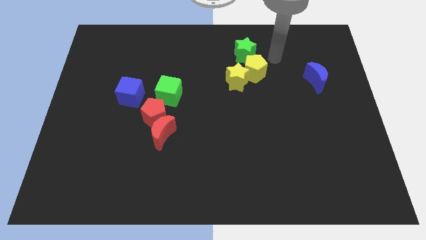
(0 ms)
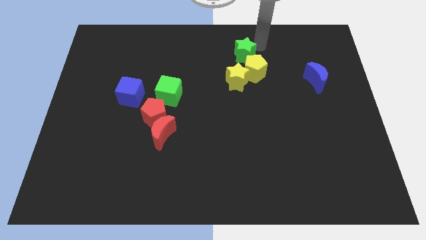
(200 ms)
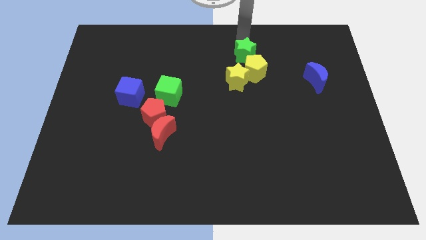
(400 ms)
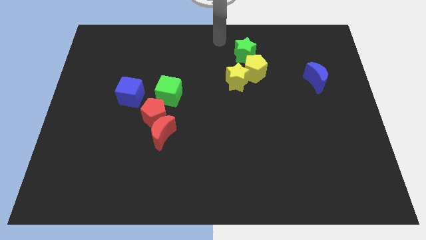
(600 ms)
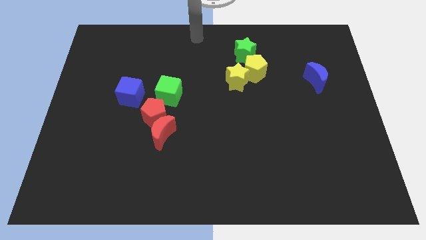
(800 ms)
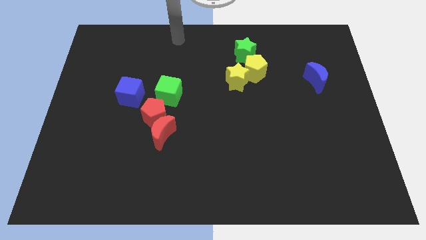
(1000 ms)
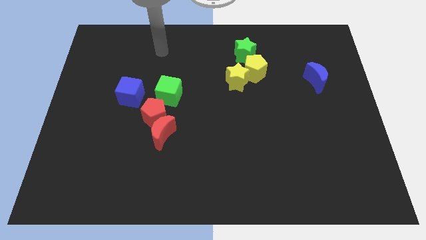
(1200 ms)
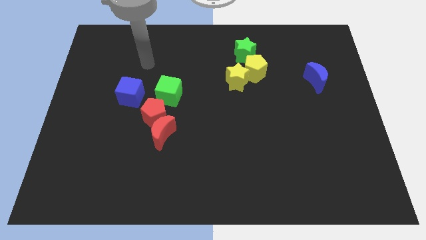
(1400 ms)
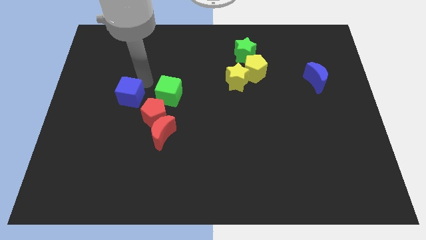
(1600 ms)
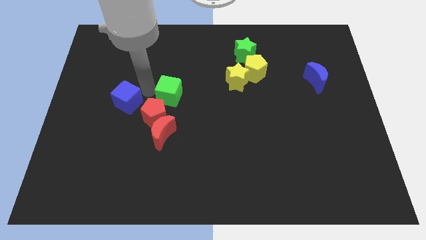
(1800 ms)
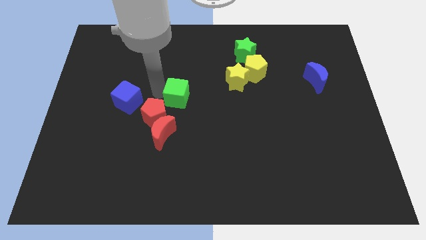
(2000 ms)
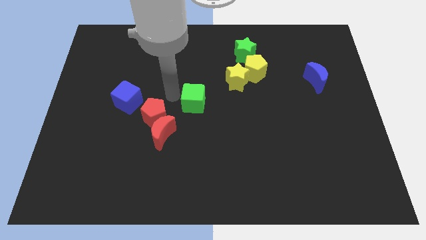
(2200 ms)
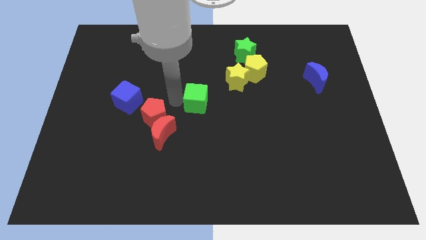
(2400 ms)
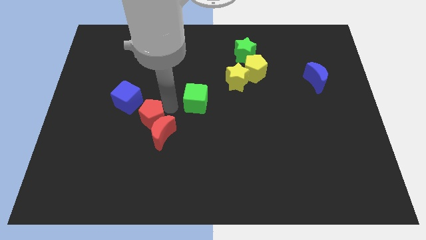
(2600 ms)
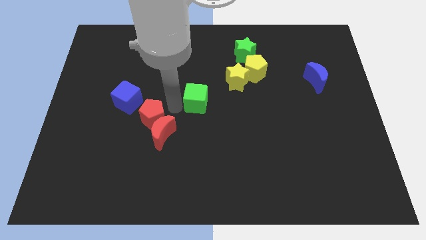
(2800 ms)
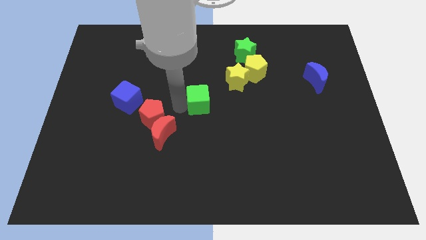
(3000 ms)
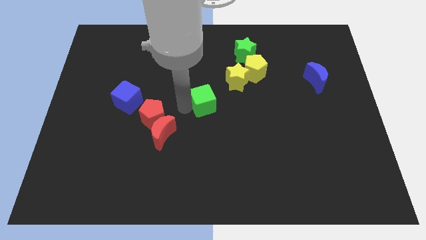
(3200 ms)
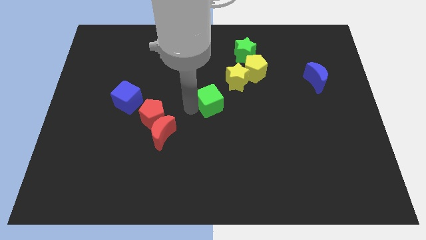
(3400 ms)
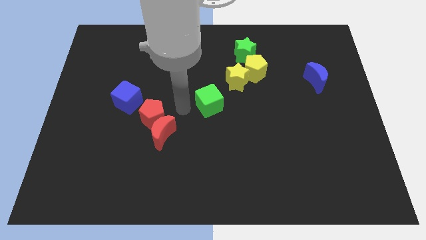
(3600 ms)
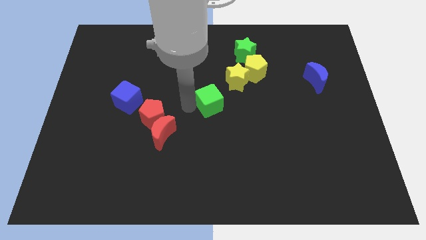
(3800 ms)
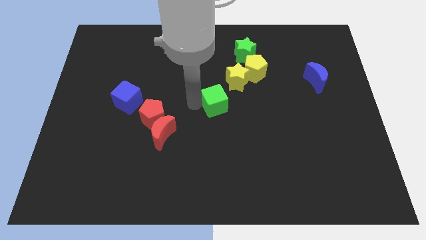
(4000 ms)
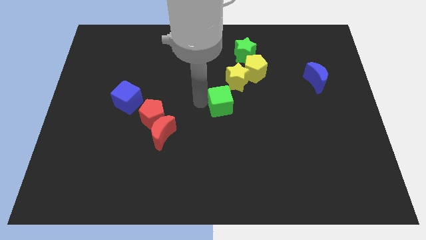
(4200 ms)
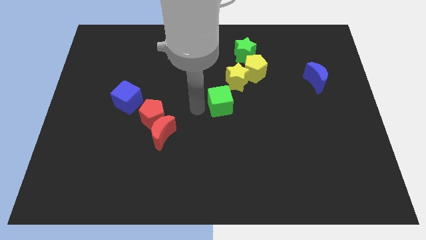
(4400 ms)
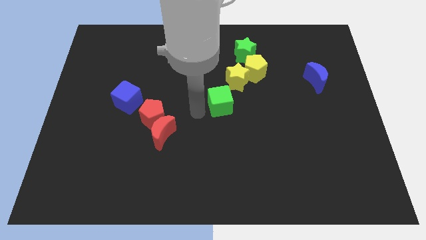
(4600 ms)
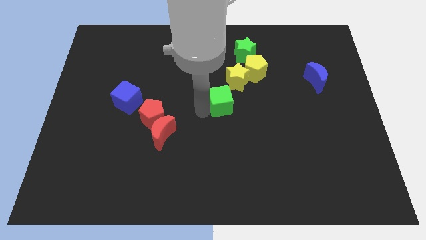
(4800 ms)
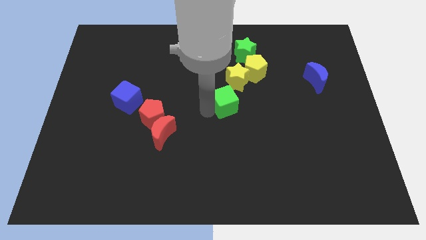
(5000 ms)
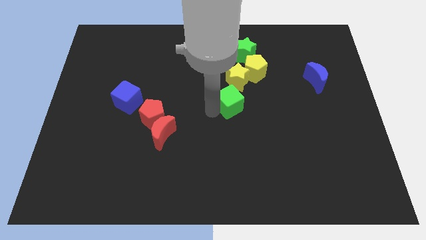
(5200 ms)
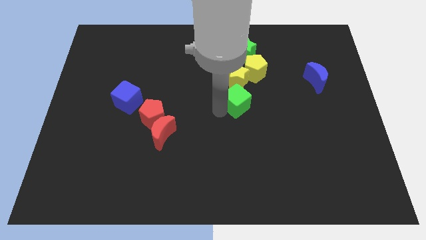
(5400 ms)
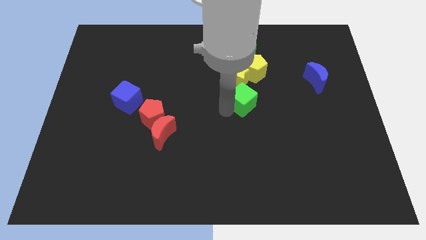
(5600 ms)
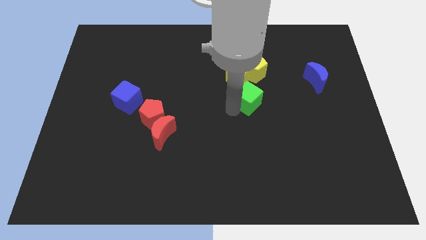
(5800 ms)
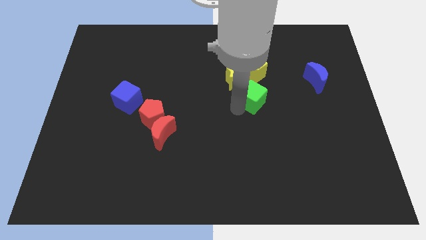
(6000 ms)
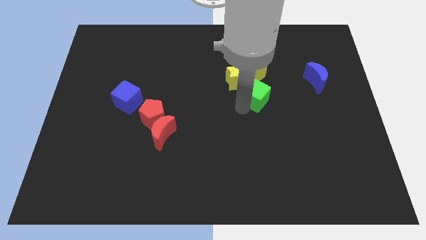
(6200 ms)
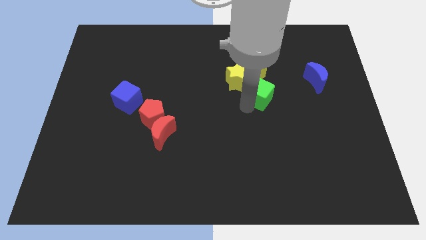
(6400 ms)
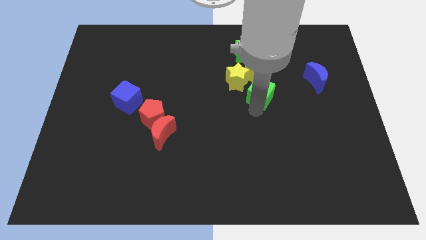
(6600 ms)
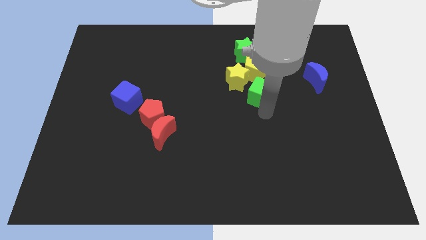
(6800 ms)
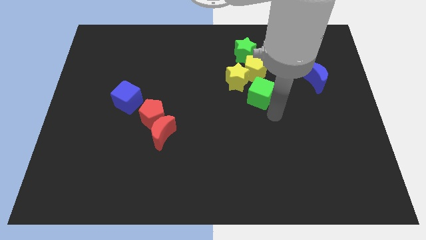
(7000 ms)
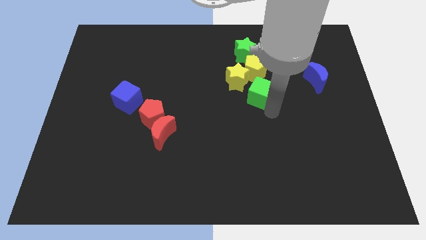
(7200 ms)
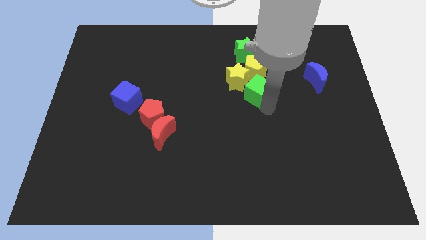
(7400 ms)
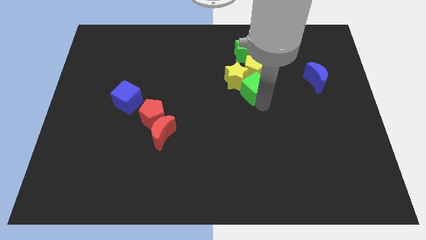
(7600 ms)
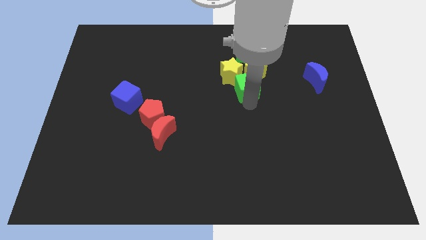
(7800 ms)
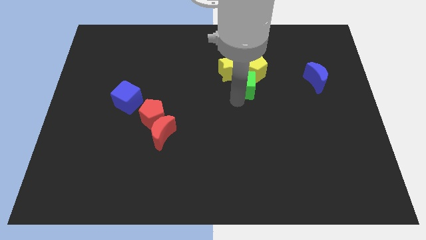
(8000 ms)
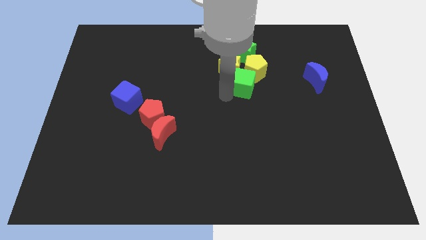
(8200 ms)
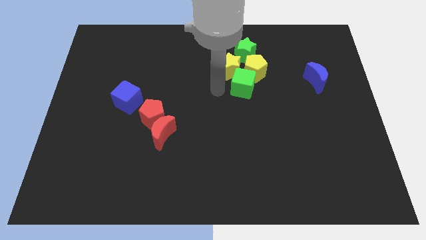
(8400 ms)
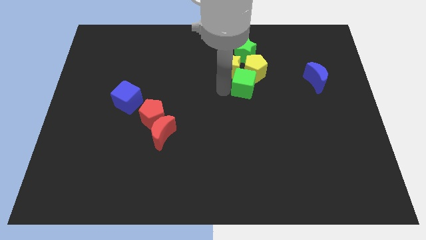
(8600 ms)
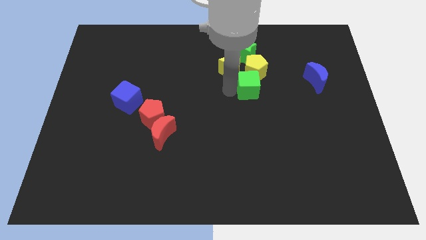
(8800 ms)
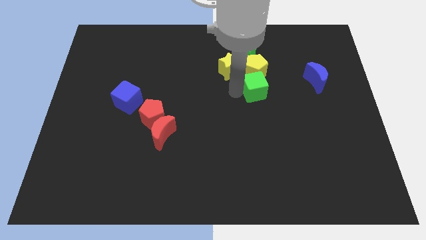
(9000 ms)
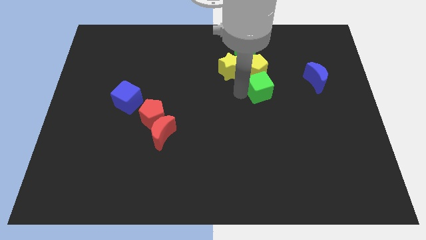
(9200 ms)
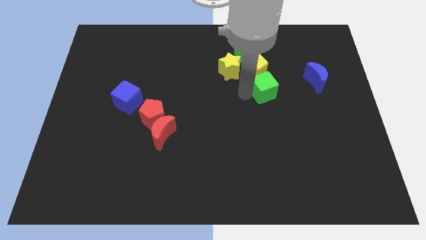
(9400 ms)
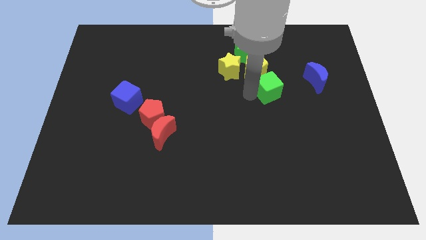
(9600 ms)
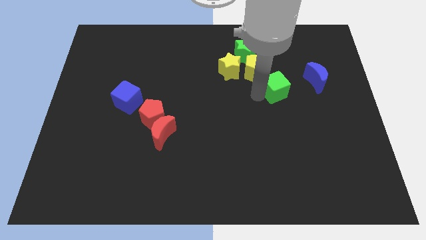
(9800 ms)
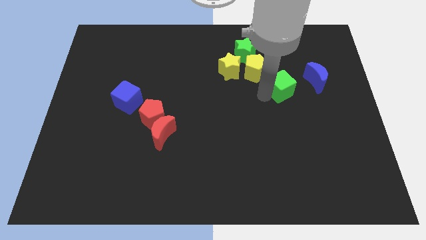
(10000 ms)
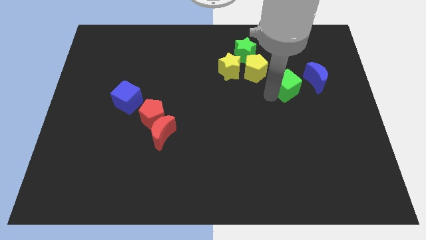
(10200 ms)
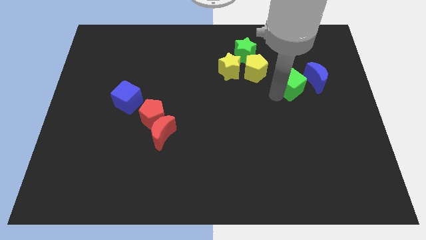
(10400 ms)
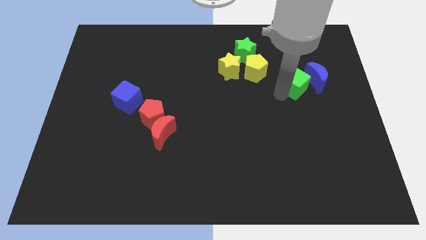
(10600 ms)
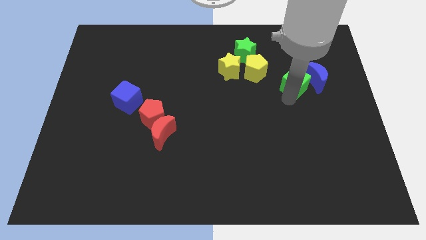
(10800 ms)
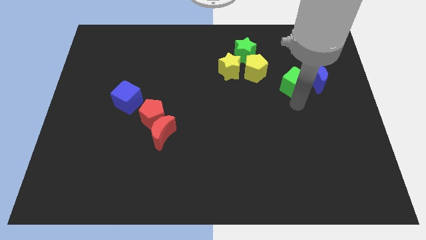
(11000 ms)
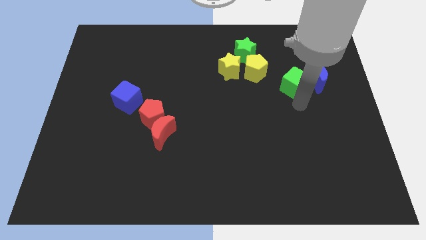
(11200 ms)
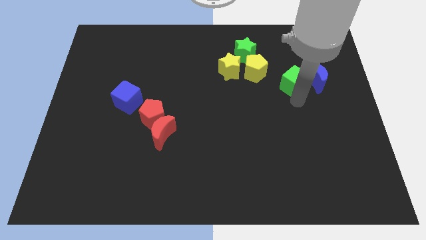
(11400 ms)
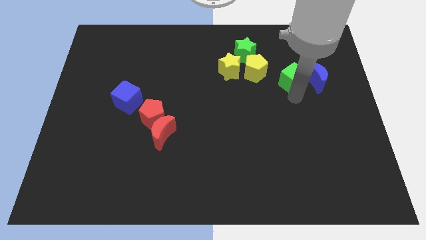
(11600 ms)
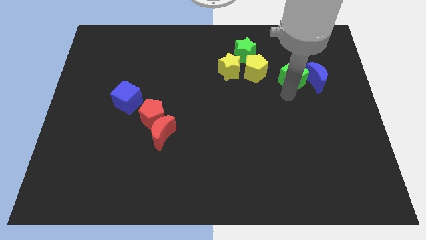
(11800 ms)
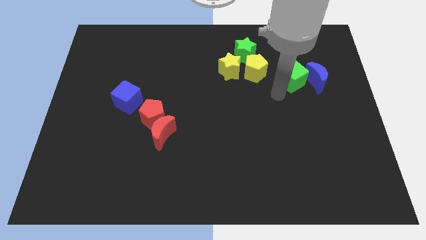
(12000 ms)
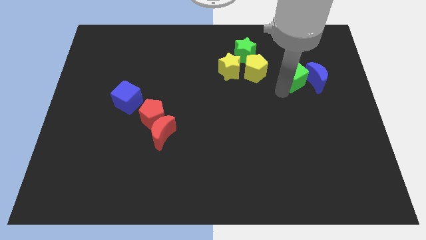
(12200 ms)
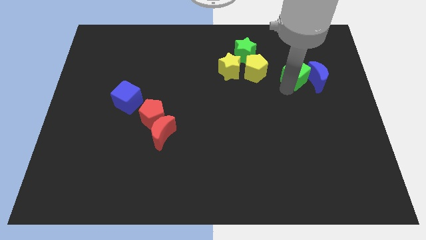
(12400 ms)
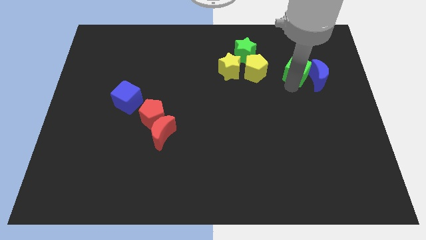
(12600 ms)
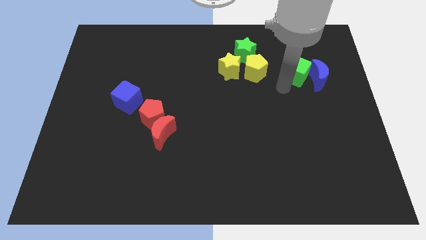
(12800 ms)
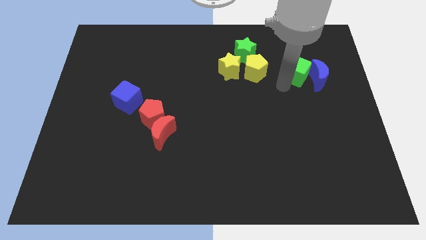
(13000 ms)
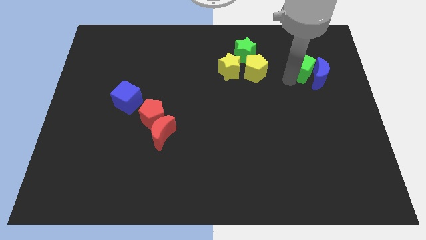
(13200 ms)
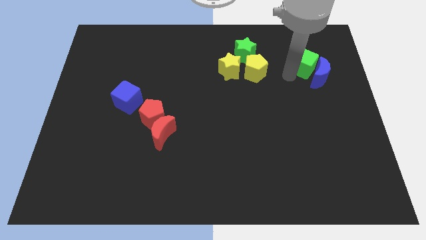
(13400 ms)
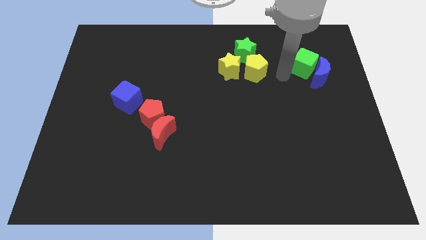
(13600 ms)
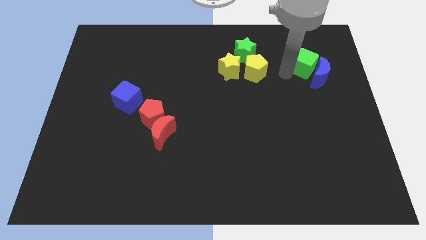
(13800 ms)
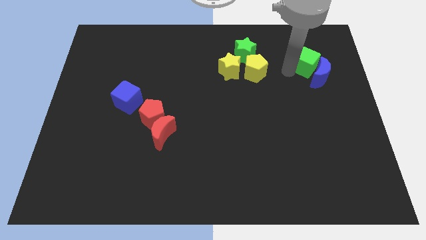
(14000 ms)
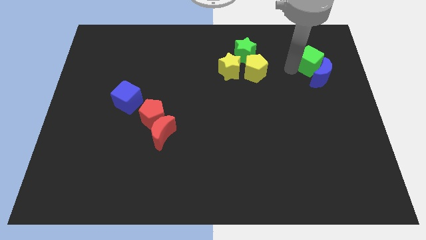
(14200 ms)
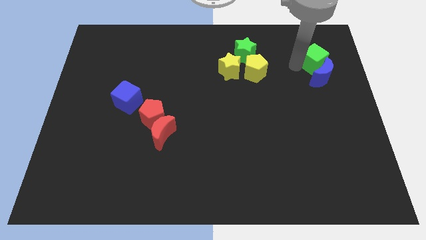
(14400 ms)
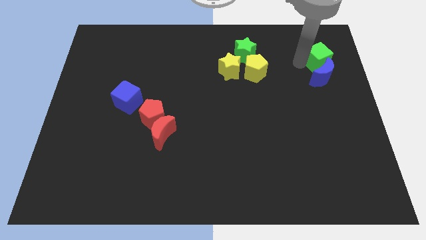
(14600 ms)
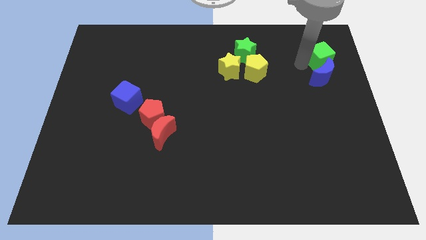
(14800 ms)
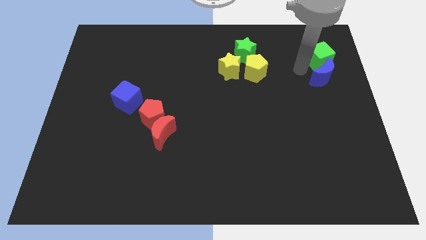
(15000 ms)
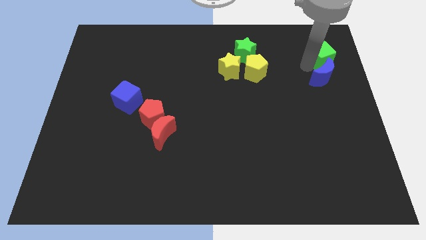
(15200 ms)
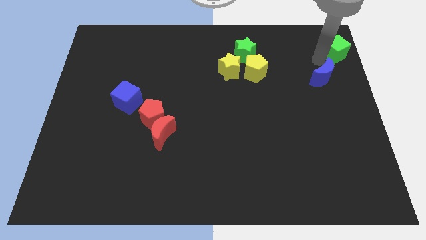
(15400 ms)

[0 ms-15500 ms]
move the green cube to the upper right corner
